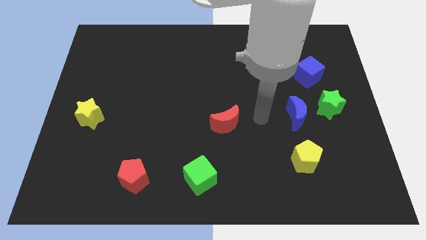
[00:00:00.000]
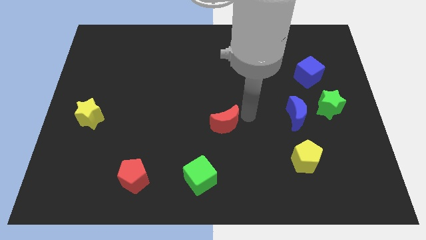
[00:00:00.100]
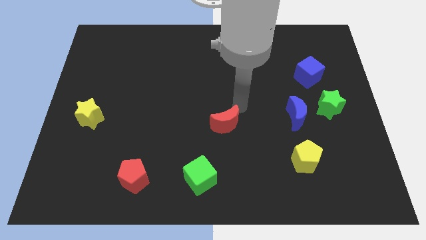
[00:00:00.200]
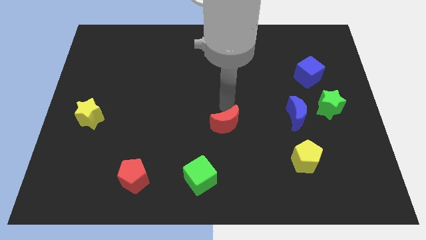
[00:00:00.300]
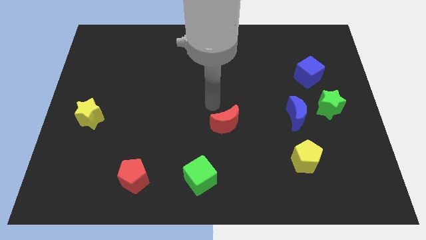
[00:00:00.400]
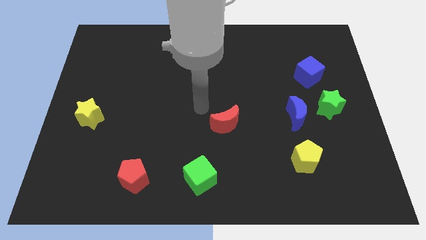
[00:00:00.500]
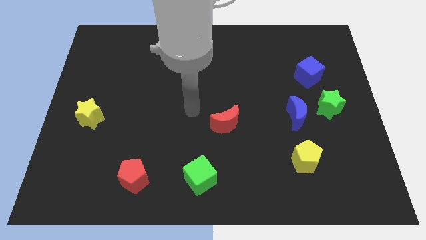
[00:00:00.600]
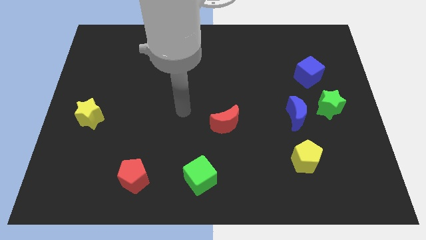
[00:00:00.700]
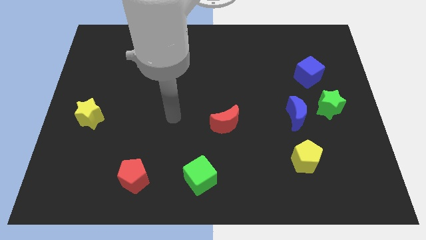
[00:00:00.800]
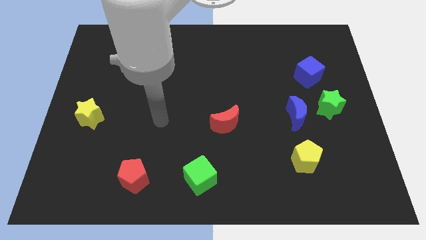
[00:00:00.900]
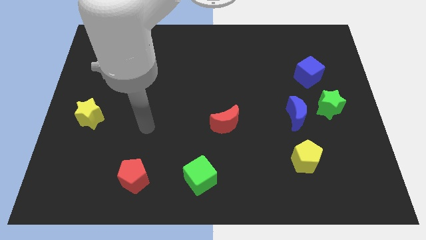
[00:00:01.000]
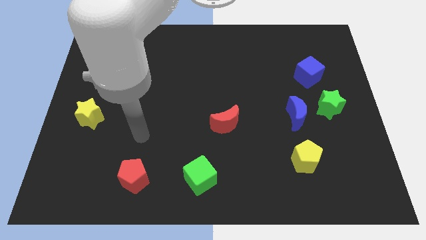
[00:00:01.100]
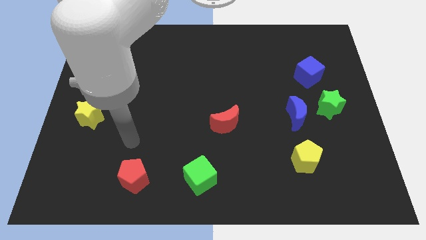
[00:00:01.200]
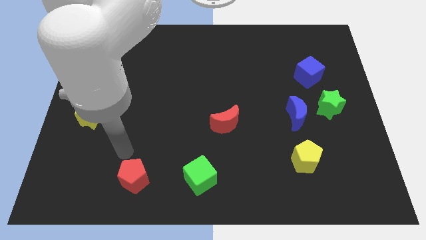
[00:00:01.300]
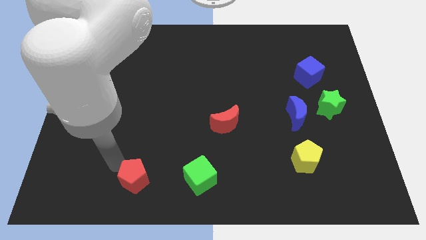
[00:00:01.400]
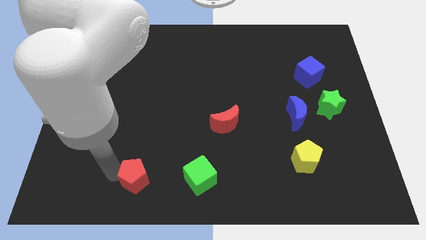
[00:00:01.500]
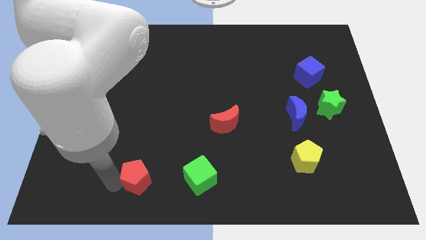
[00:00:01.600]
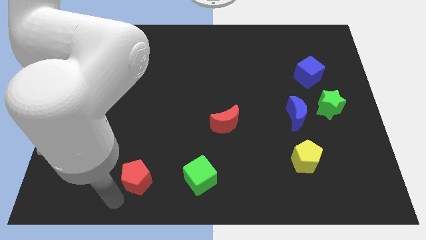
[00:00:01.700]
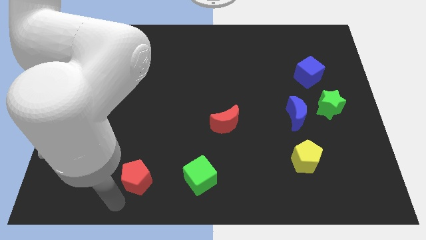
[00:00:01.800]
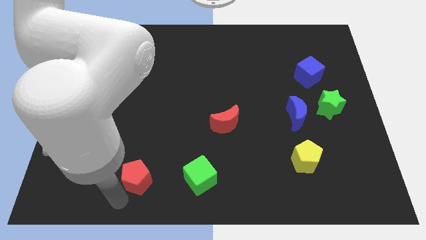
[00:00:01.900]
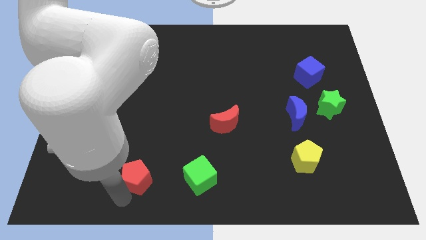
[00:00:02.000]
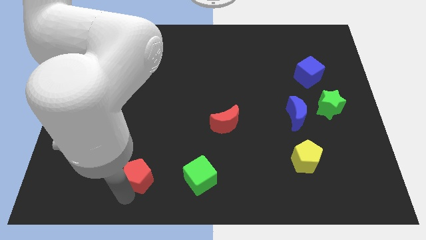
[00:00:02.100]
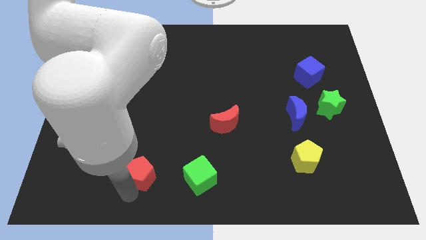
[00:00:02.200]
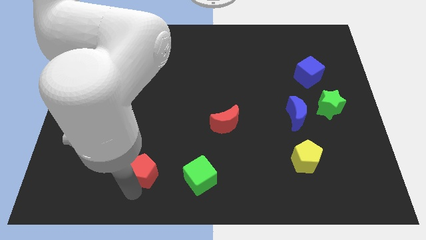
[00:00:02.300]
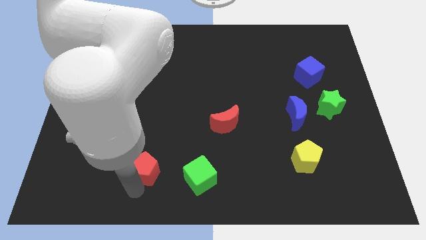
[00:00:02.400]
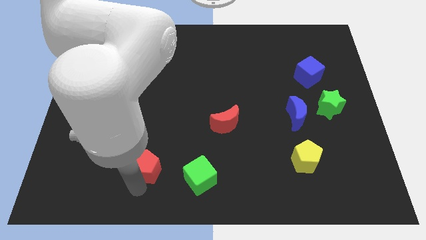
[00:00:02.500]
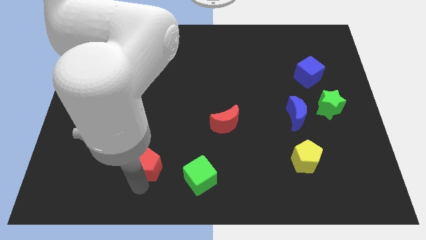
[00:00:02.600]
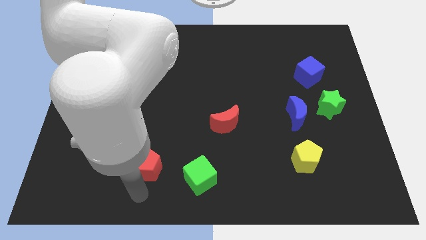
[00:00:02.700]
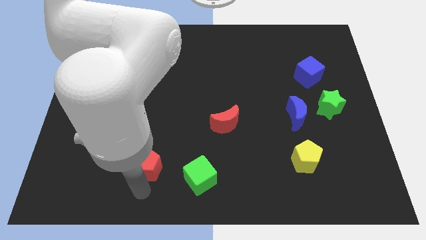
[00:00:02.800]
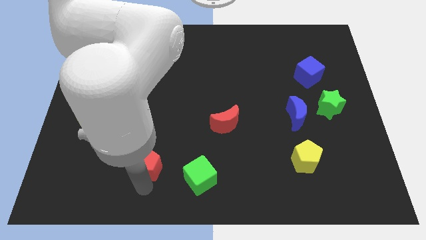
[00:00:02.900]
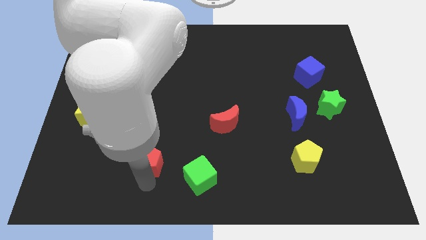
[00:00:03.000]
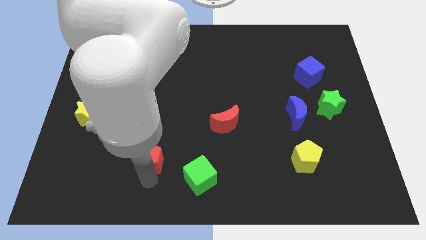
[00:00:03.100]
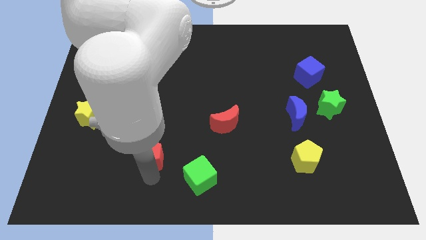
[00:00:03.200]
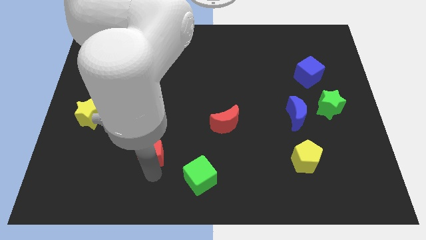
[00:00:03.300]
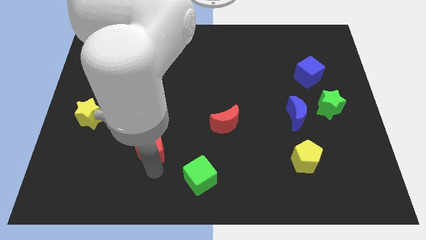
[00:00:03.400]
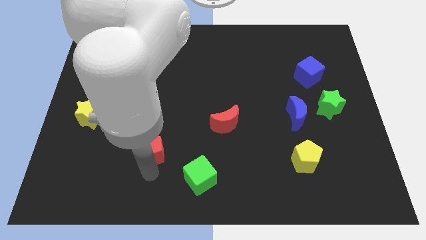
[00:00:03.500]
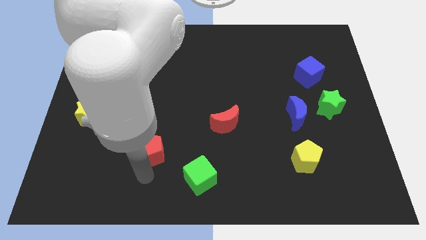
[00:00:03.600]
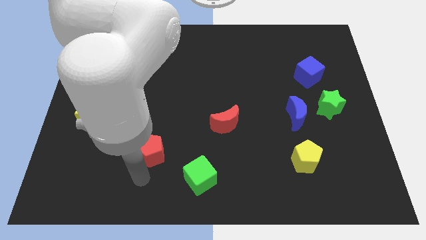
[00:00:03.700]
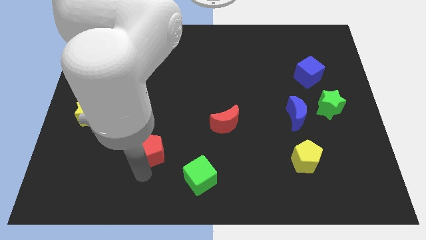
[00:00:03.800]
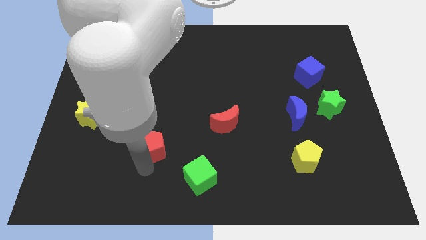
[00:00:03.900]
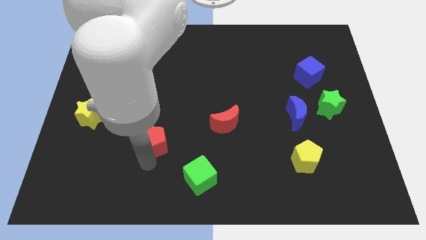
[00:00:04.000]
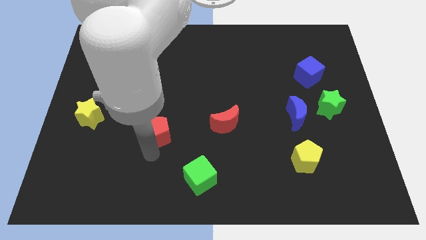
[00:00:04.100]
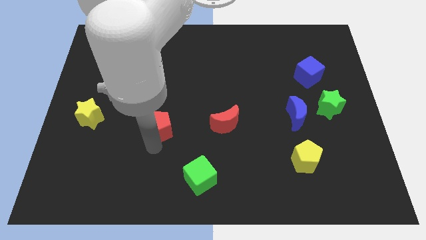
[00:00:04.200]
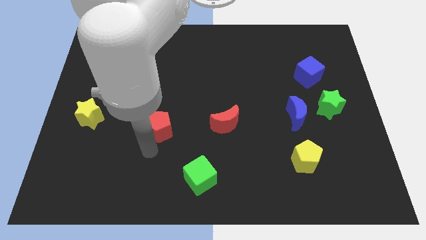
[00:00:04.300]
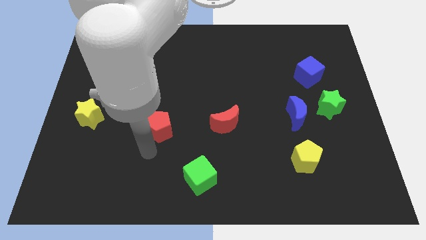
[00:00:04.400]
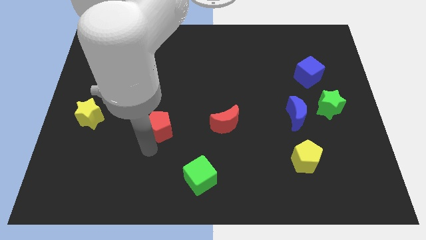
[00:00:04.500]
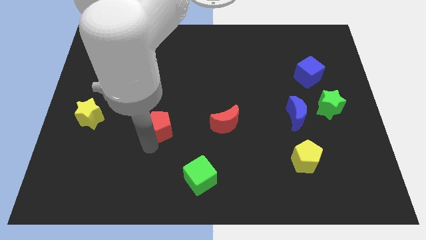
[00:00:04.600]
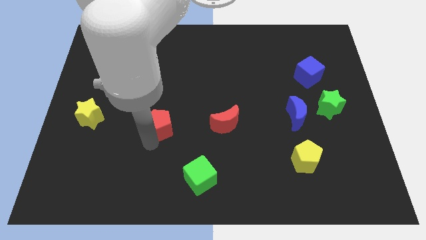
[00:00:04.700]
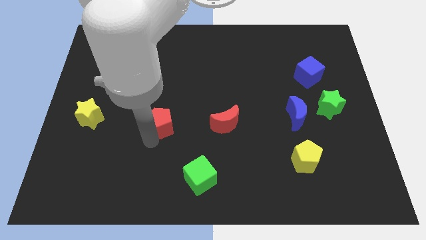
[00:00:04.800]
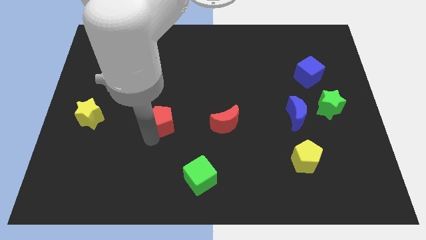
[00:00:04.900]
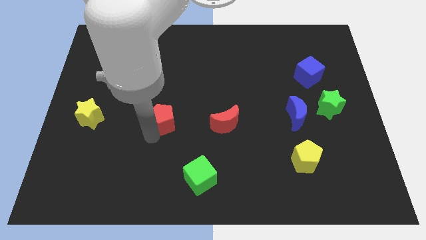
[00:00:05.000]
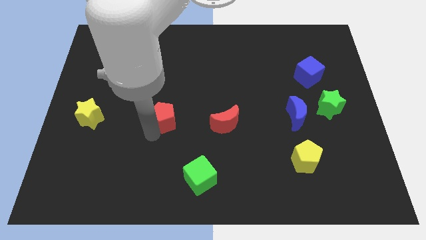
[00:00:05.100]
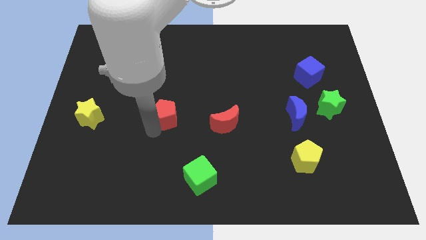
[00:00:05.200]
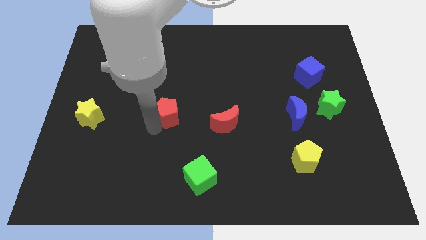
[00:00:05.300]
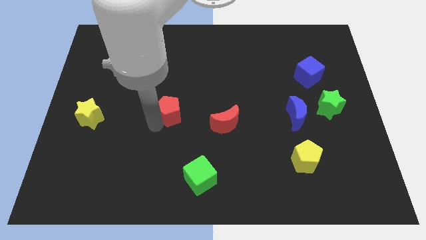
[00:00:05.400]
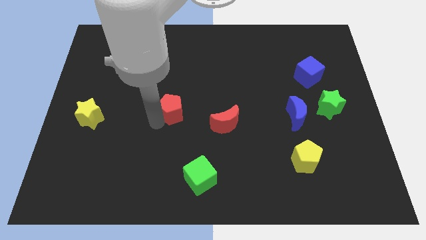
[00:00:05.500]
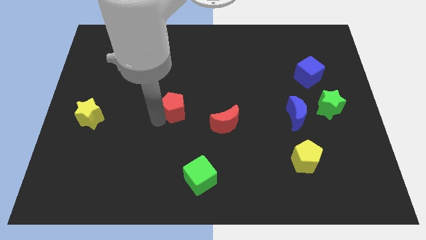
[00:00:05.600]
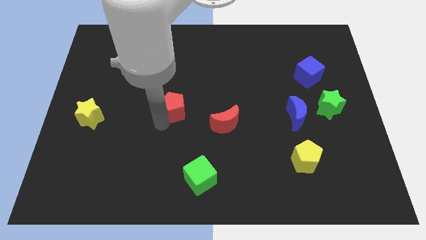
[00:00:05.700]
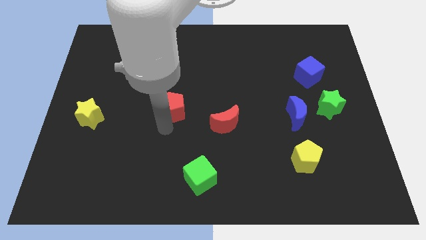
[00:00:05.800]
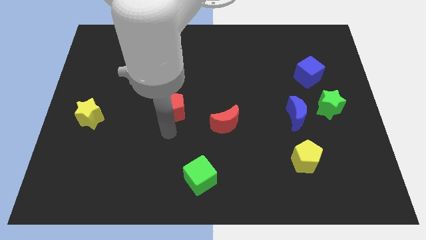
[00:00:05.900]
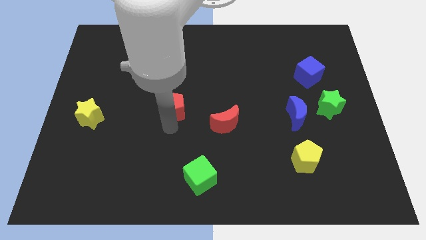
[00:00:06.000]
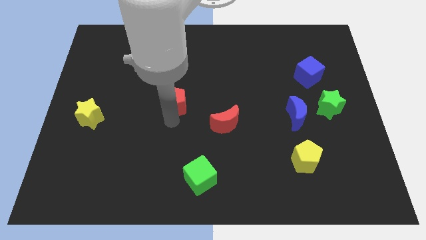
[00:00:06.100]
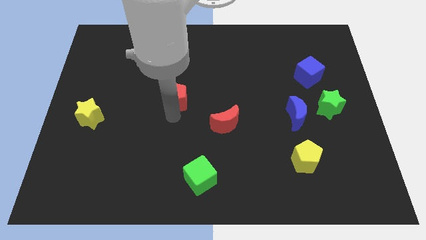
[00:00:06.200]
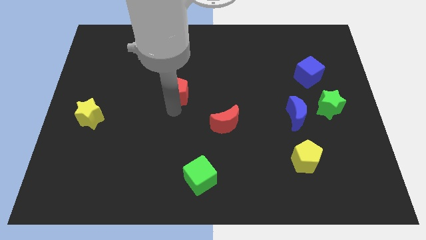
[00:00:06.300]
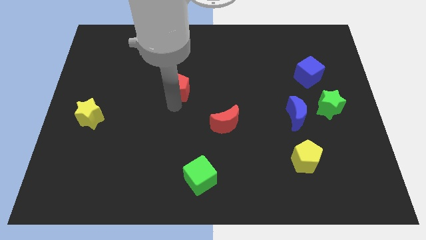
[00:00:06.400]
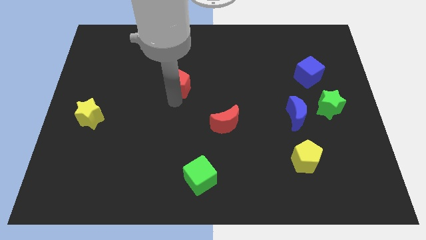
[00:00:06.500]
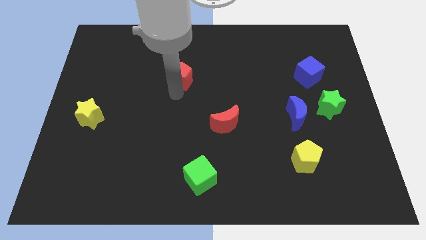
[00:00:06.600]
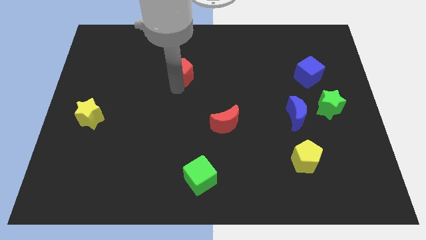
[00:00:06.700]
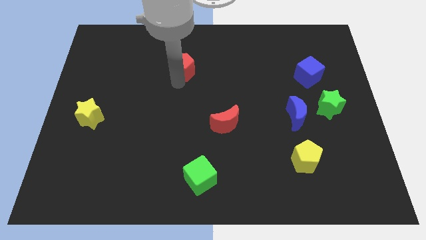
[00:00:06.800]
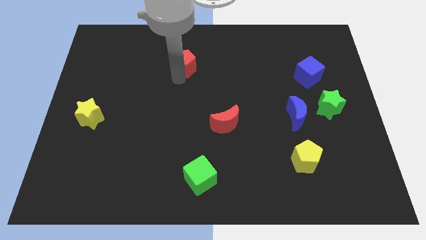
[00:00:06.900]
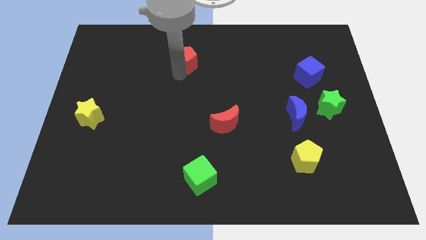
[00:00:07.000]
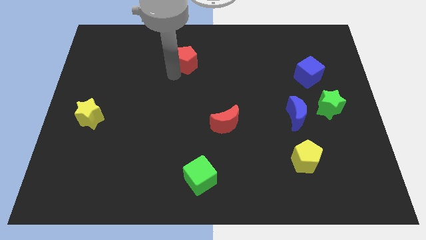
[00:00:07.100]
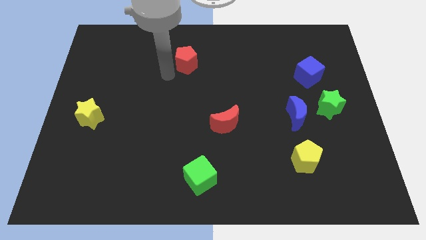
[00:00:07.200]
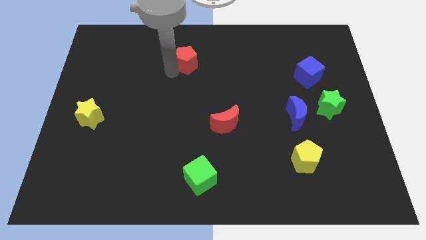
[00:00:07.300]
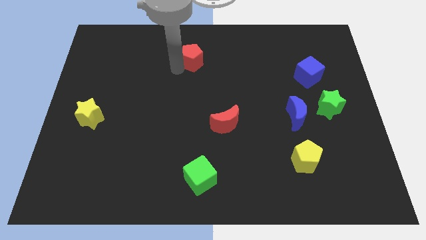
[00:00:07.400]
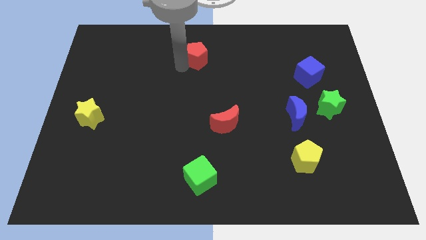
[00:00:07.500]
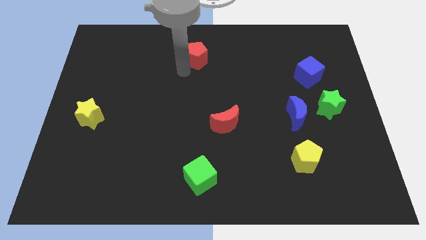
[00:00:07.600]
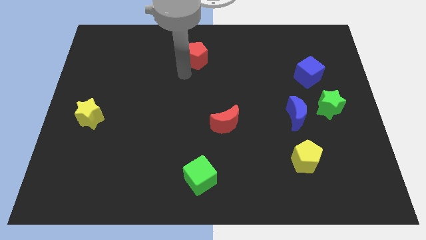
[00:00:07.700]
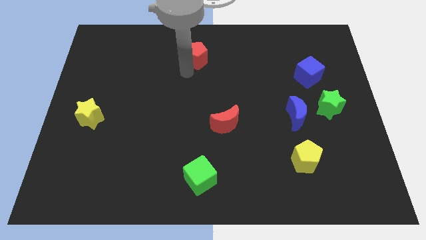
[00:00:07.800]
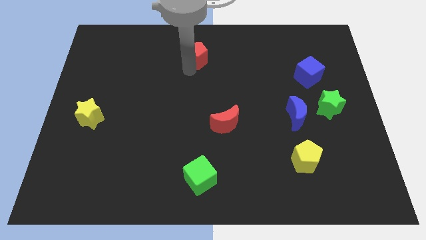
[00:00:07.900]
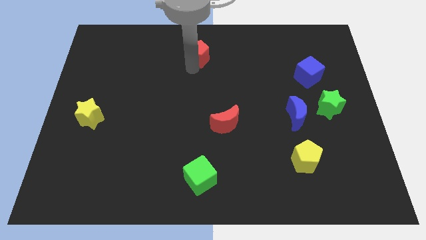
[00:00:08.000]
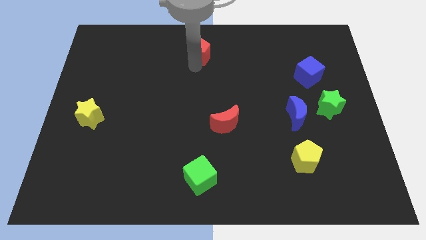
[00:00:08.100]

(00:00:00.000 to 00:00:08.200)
push the red pentagon to the top
